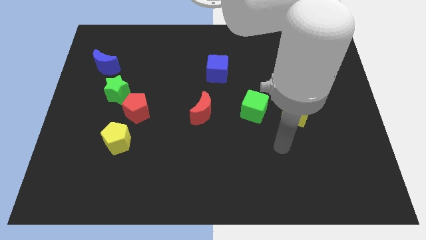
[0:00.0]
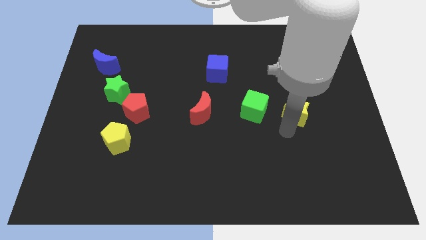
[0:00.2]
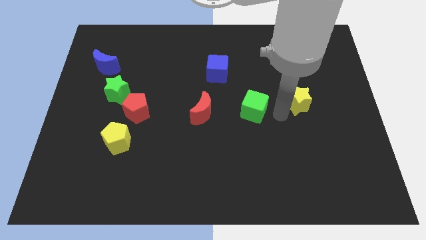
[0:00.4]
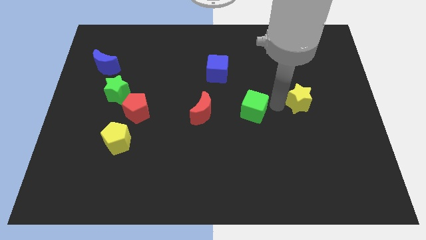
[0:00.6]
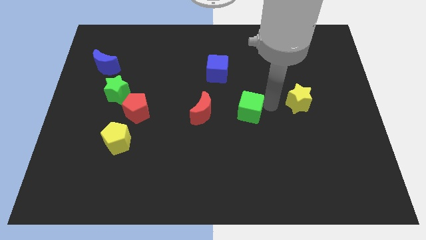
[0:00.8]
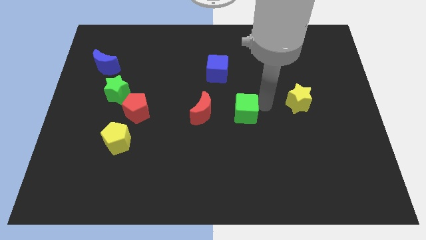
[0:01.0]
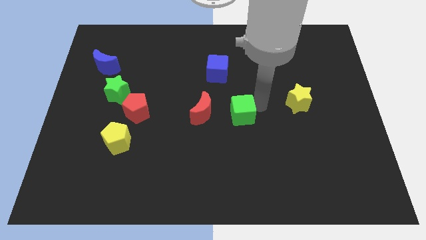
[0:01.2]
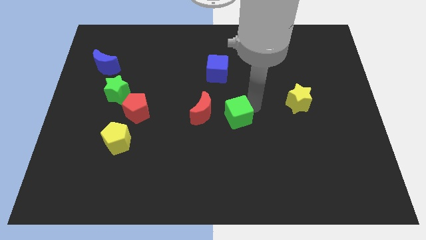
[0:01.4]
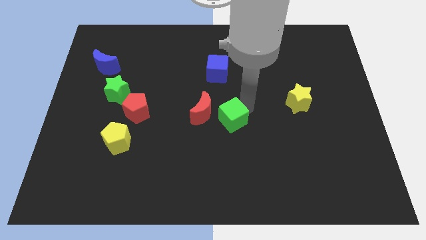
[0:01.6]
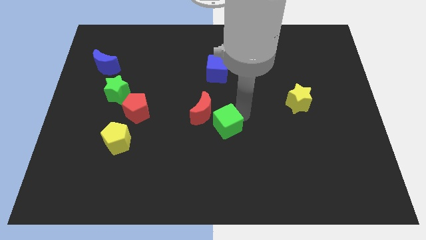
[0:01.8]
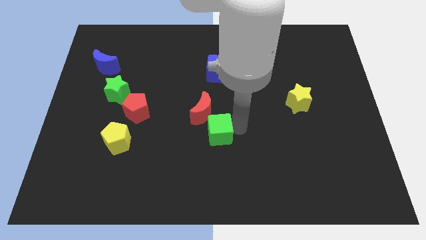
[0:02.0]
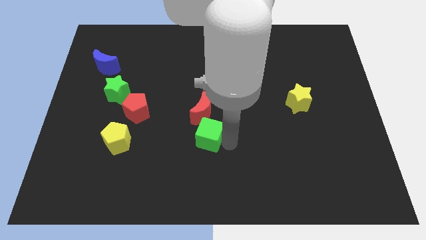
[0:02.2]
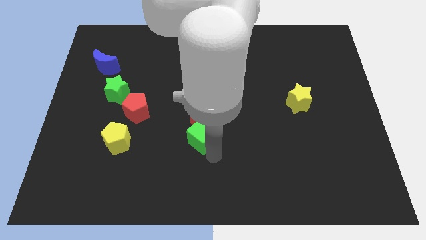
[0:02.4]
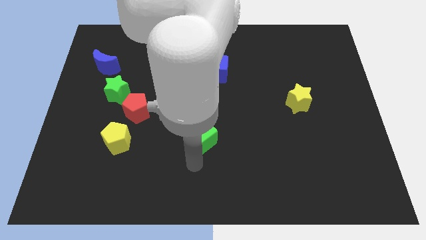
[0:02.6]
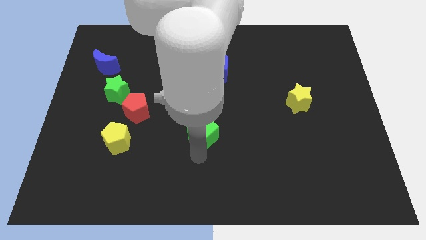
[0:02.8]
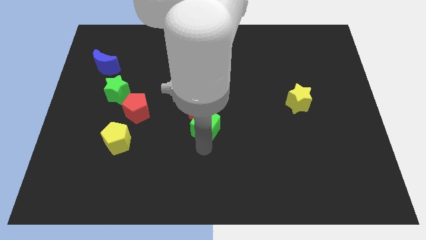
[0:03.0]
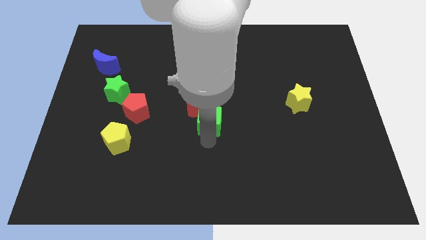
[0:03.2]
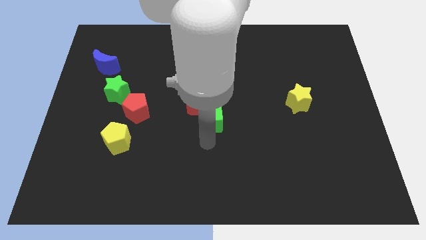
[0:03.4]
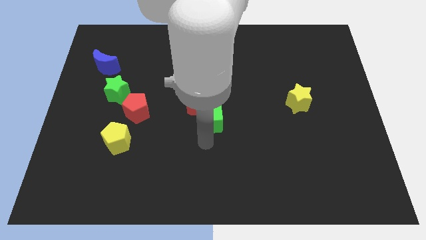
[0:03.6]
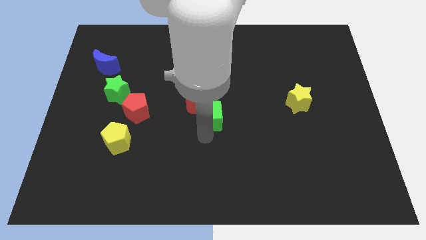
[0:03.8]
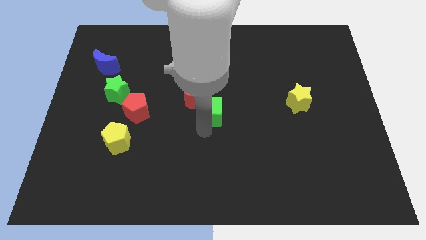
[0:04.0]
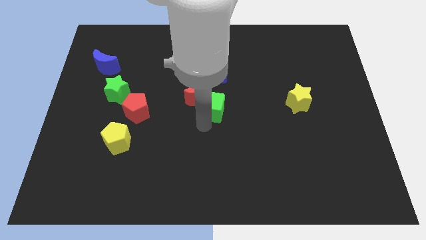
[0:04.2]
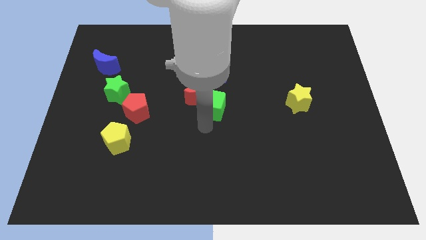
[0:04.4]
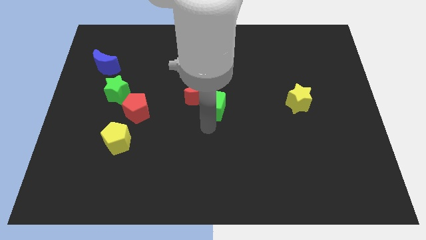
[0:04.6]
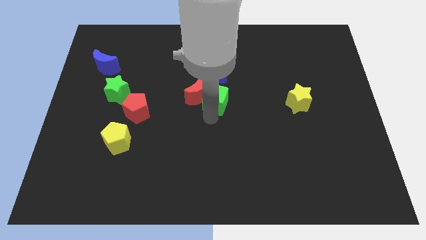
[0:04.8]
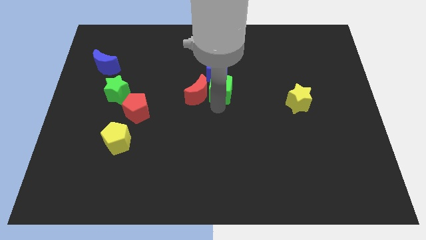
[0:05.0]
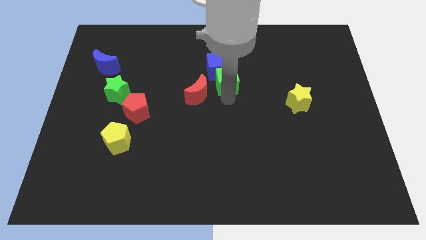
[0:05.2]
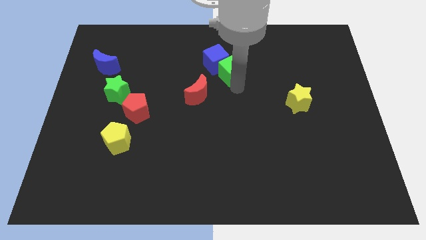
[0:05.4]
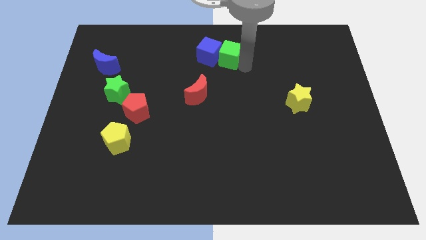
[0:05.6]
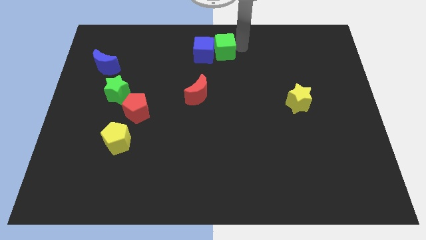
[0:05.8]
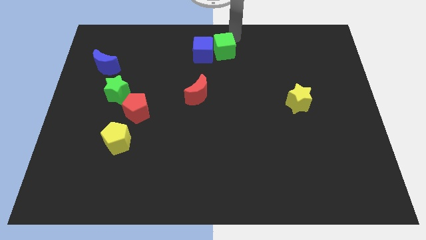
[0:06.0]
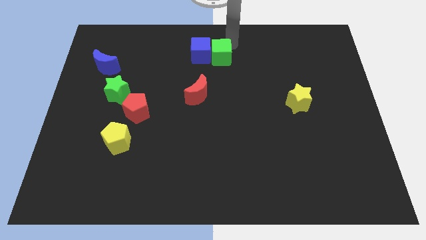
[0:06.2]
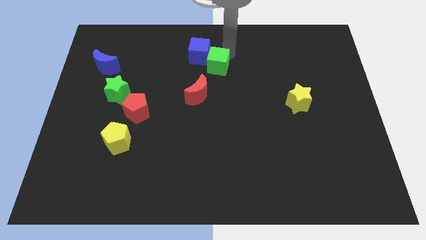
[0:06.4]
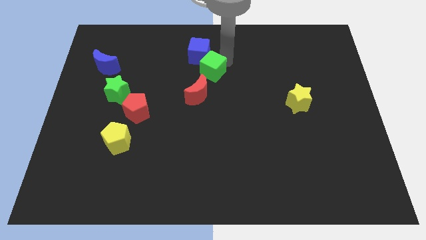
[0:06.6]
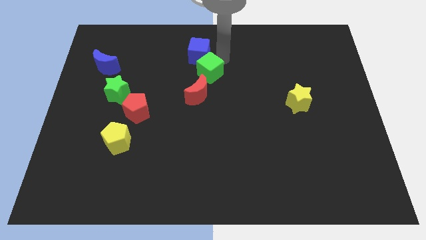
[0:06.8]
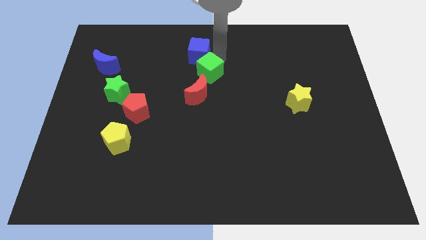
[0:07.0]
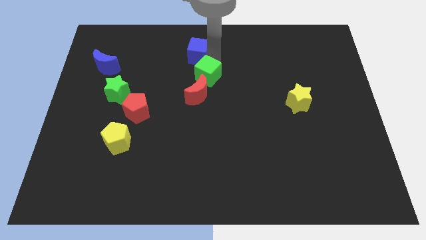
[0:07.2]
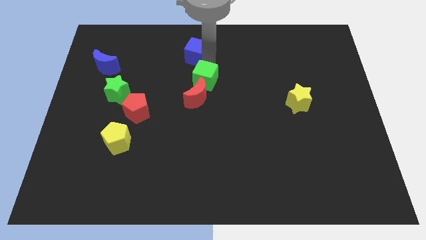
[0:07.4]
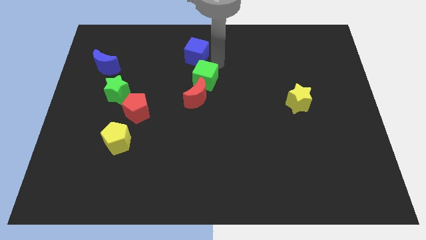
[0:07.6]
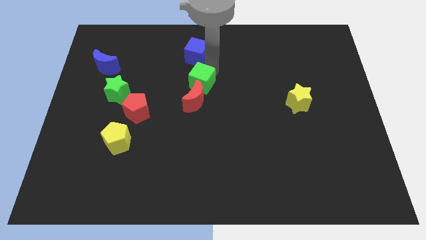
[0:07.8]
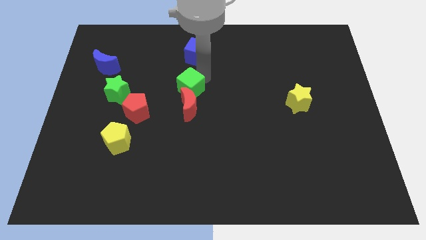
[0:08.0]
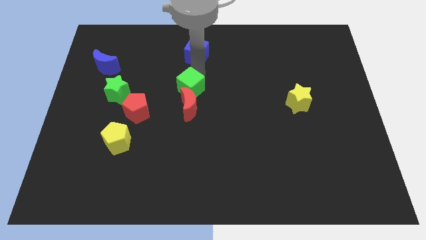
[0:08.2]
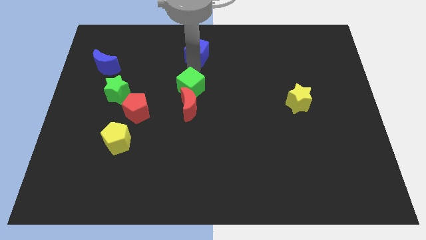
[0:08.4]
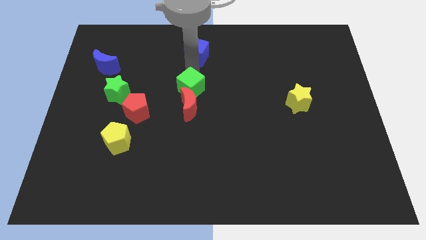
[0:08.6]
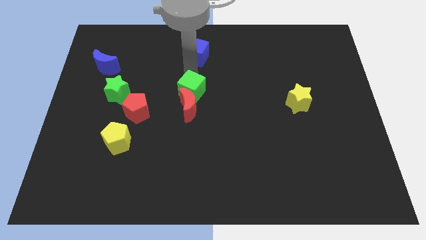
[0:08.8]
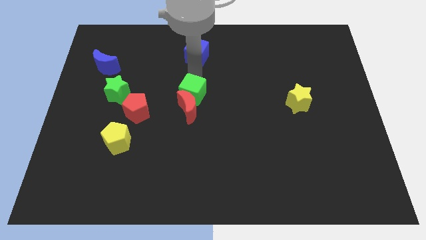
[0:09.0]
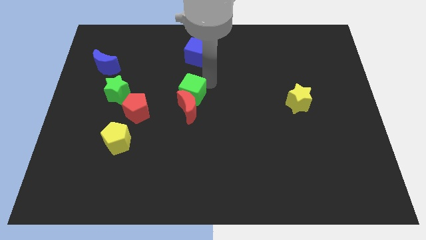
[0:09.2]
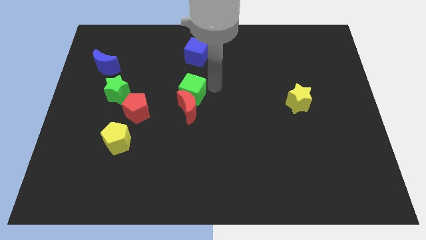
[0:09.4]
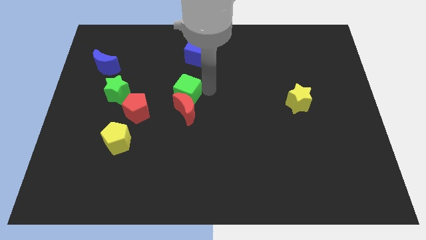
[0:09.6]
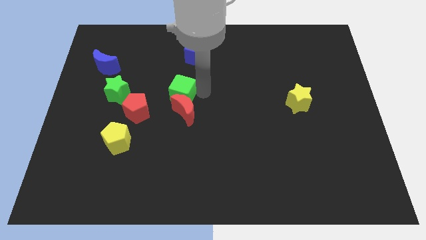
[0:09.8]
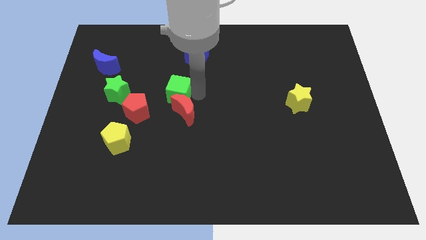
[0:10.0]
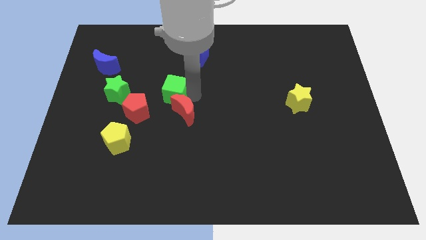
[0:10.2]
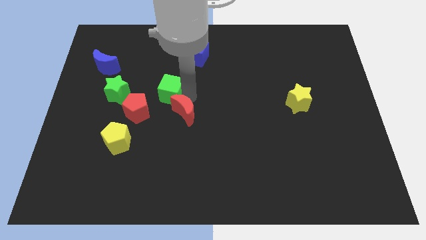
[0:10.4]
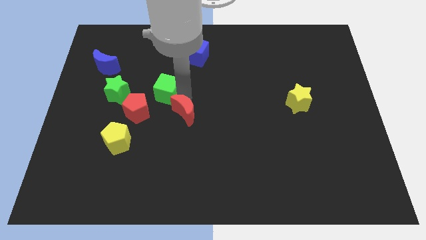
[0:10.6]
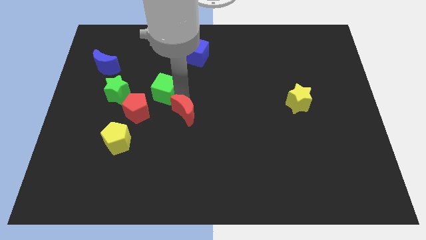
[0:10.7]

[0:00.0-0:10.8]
move the green cube to the left

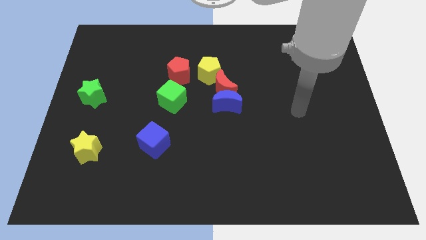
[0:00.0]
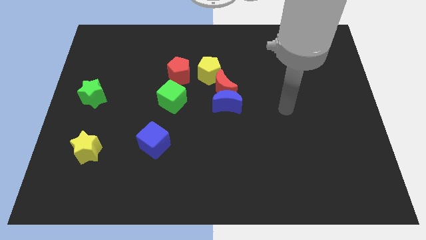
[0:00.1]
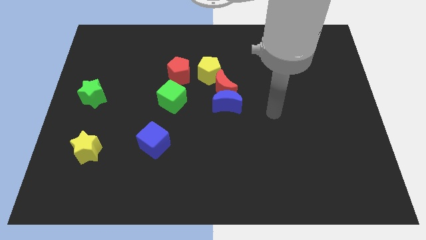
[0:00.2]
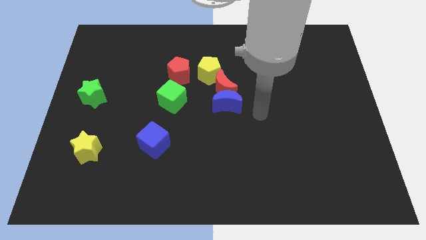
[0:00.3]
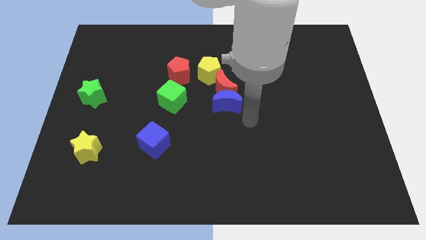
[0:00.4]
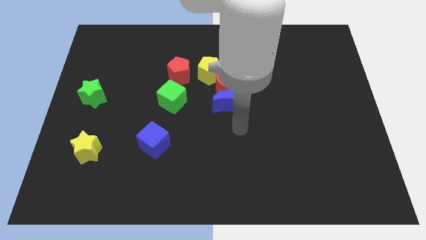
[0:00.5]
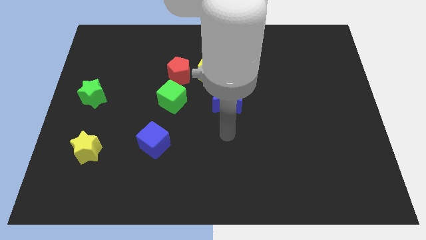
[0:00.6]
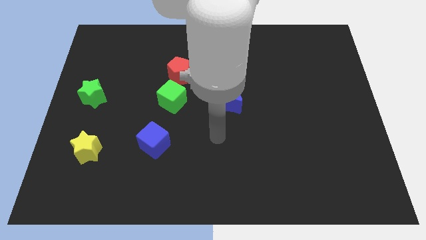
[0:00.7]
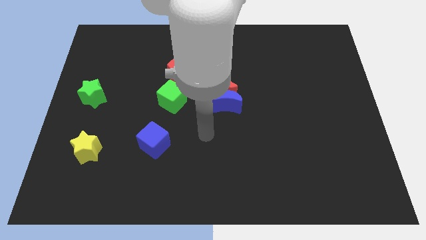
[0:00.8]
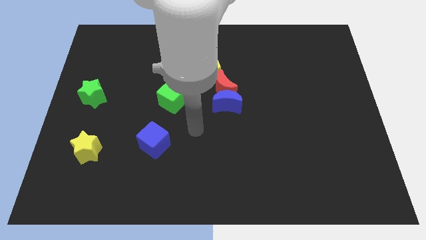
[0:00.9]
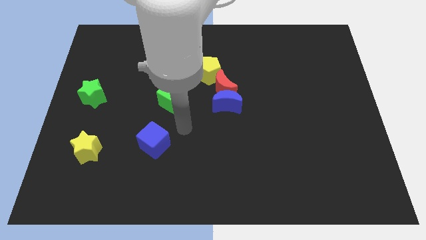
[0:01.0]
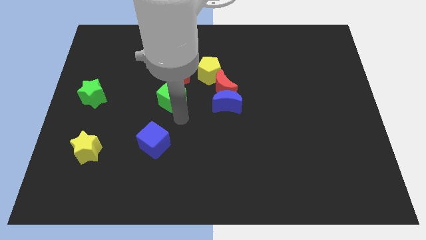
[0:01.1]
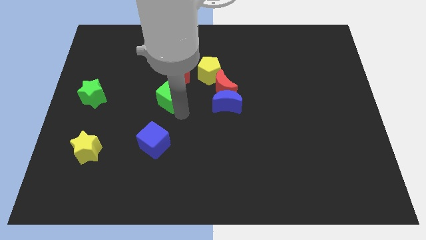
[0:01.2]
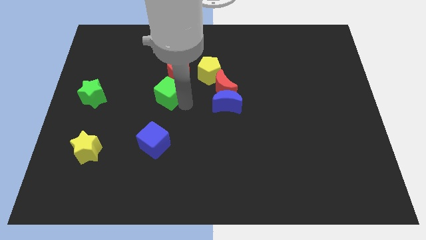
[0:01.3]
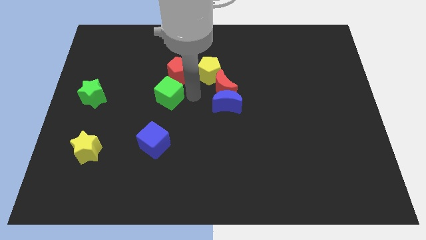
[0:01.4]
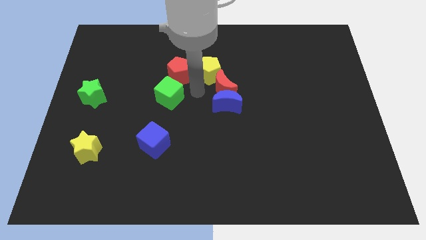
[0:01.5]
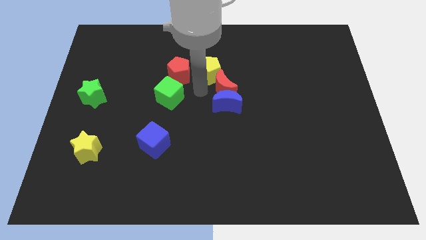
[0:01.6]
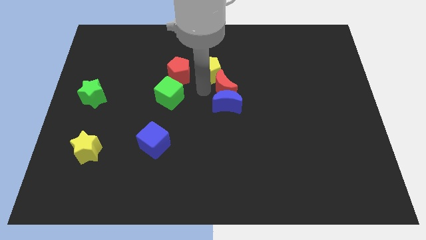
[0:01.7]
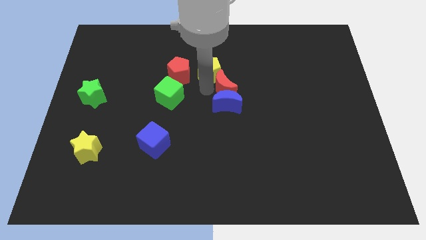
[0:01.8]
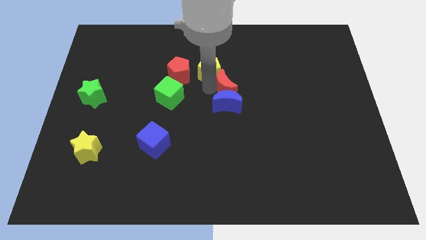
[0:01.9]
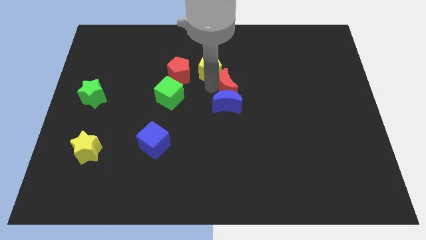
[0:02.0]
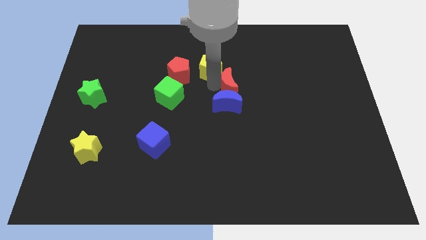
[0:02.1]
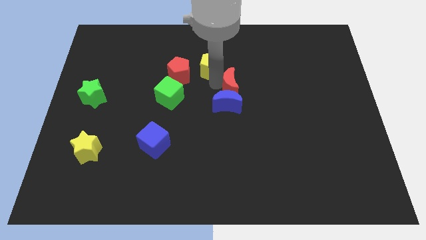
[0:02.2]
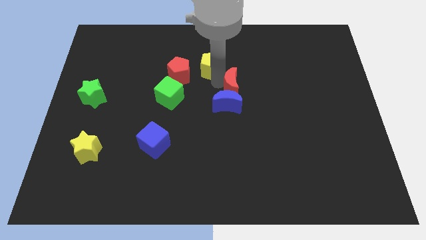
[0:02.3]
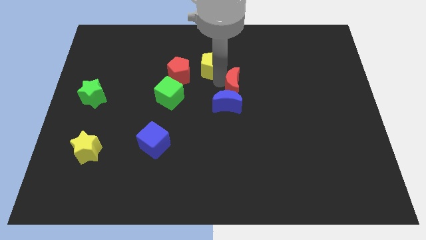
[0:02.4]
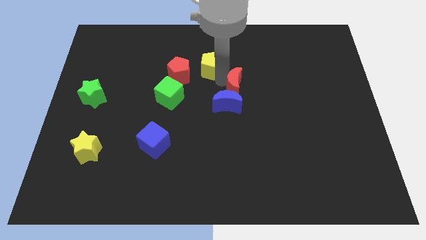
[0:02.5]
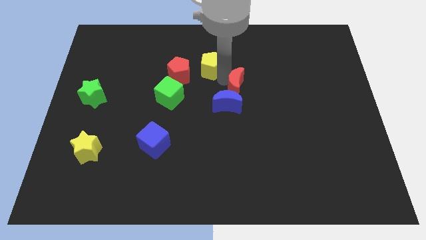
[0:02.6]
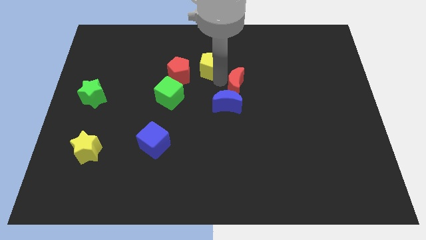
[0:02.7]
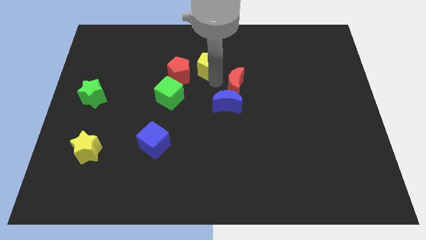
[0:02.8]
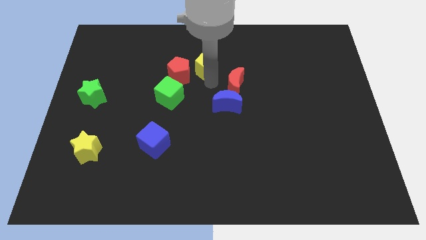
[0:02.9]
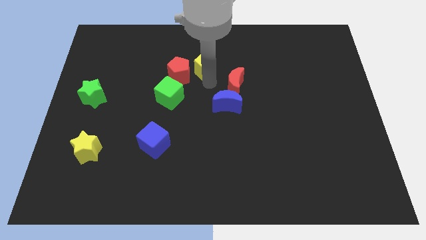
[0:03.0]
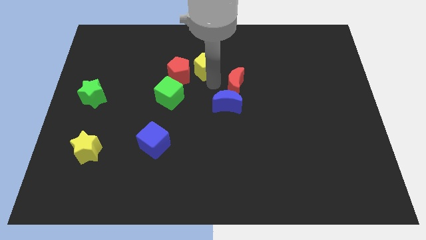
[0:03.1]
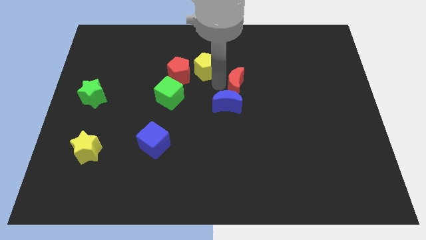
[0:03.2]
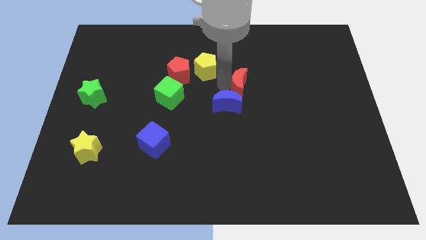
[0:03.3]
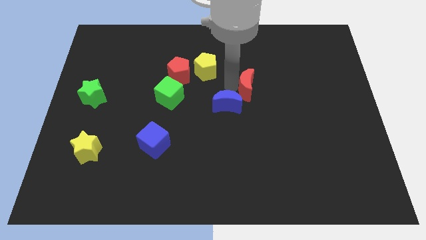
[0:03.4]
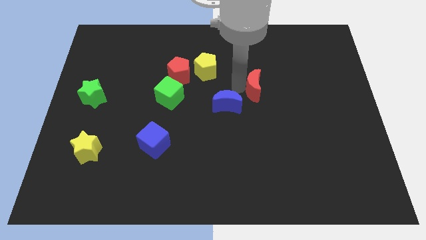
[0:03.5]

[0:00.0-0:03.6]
push the red moon right a bit
